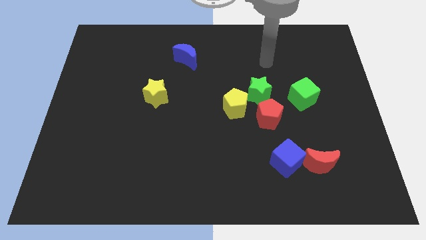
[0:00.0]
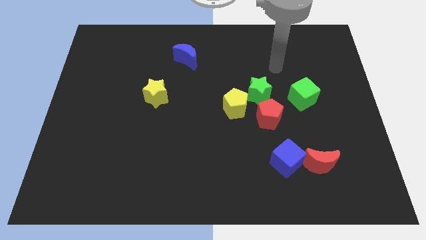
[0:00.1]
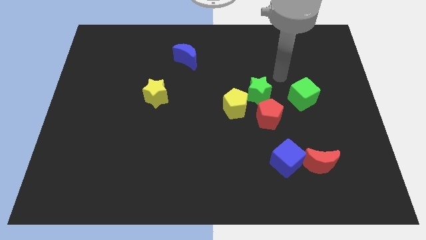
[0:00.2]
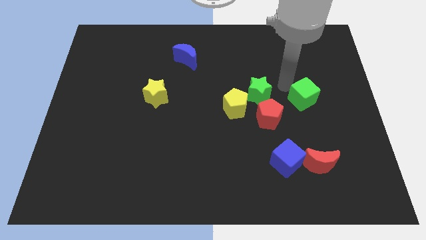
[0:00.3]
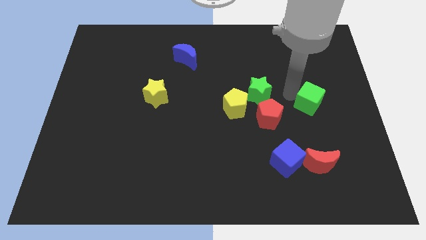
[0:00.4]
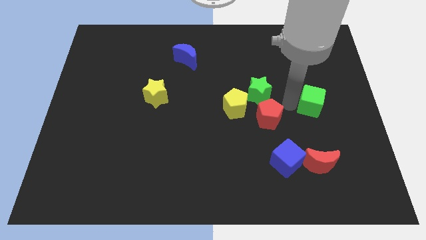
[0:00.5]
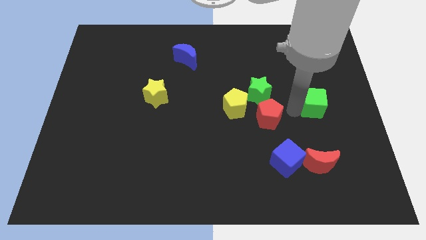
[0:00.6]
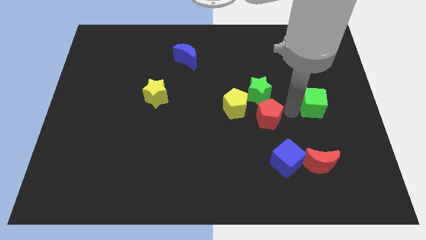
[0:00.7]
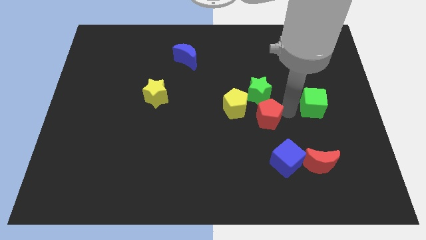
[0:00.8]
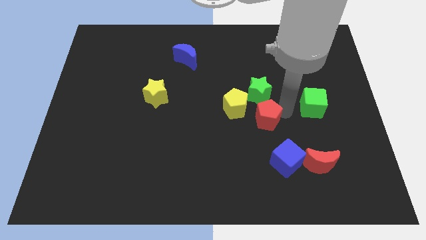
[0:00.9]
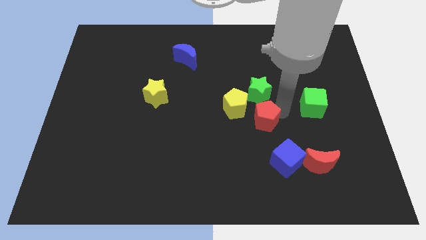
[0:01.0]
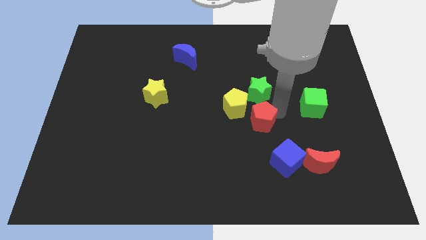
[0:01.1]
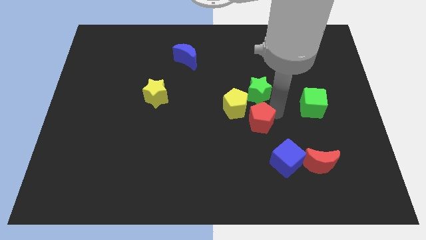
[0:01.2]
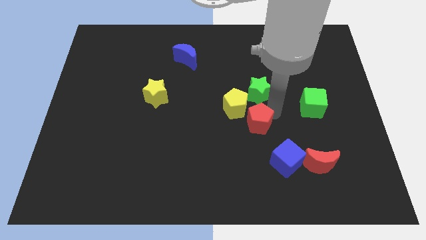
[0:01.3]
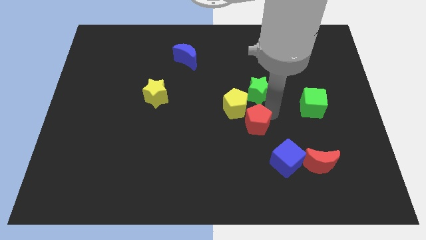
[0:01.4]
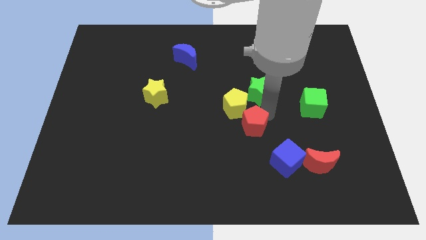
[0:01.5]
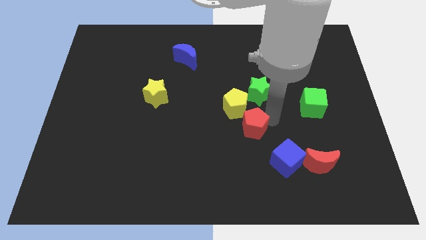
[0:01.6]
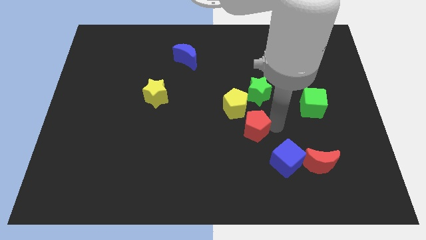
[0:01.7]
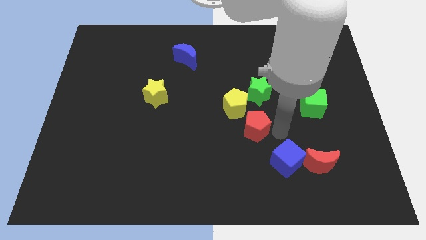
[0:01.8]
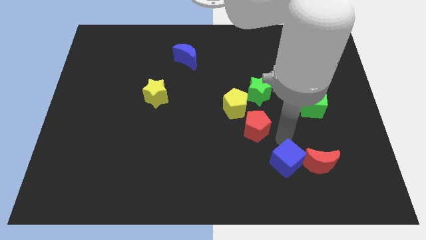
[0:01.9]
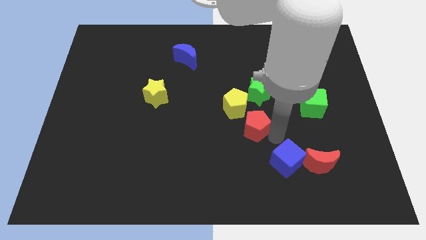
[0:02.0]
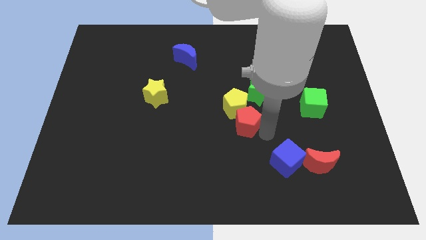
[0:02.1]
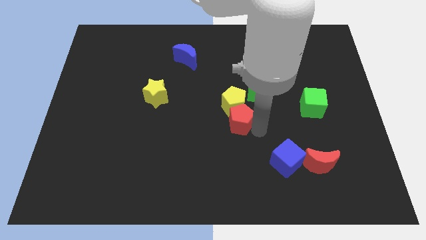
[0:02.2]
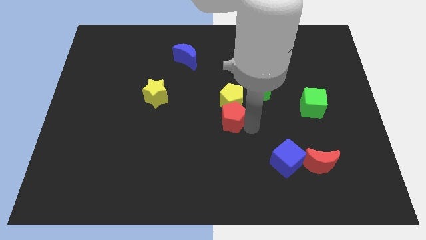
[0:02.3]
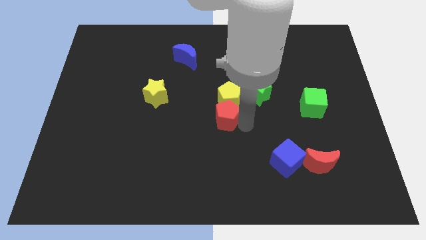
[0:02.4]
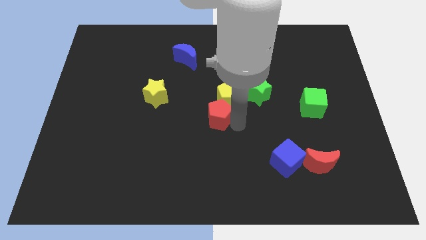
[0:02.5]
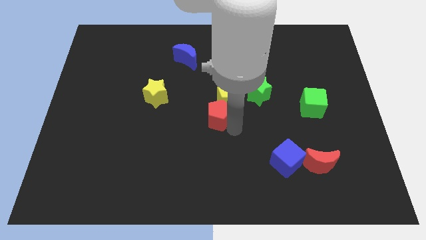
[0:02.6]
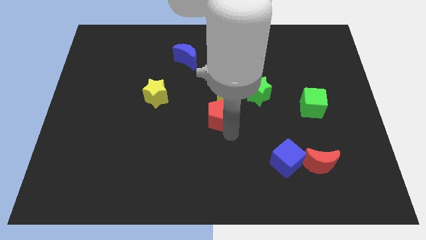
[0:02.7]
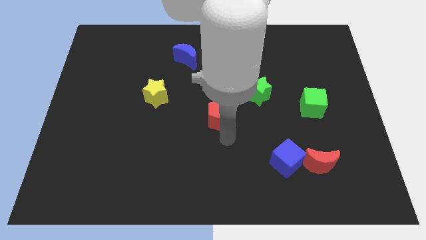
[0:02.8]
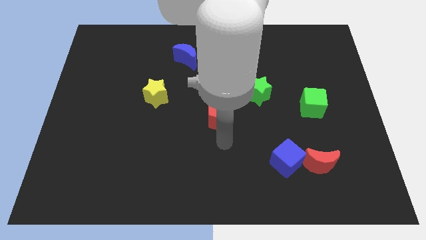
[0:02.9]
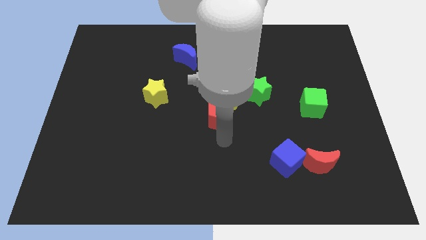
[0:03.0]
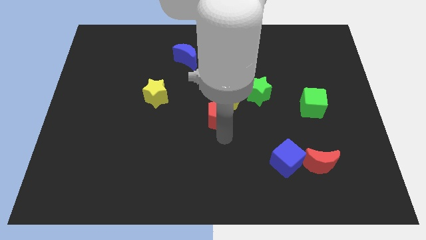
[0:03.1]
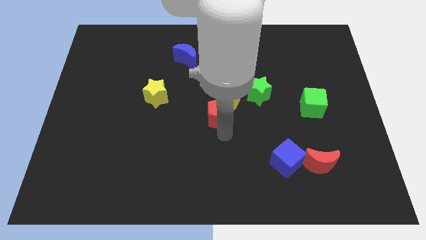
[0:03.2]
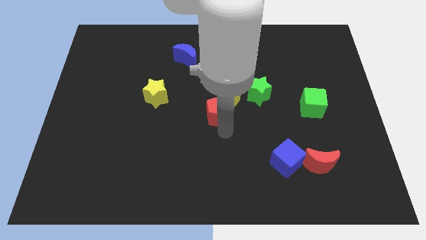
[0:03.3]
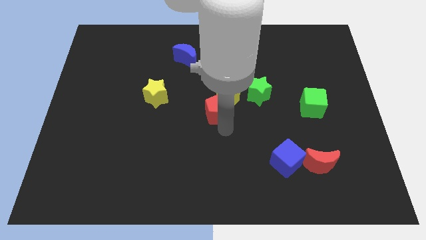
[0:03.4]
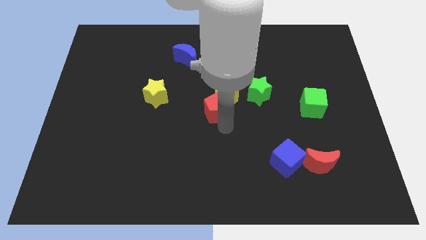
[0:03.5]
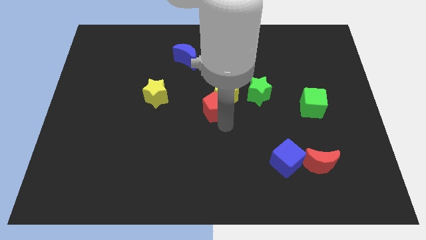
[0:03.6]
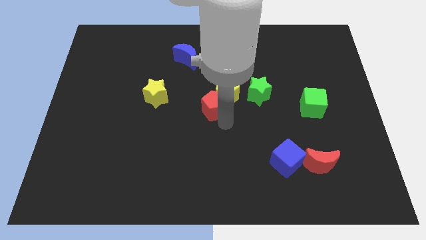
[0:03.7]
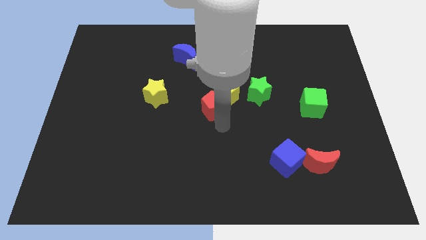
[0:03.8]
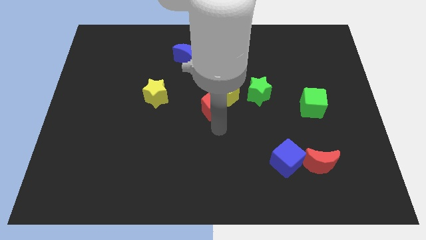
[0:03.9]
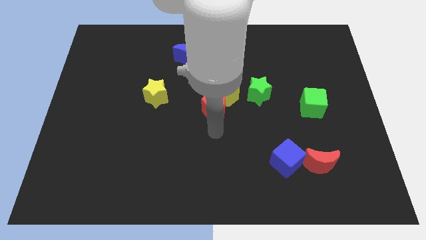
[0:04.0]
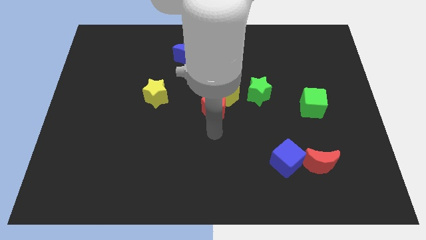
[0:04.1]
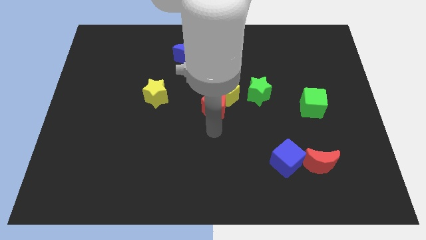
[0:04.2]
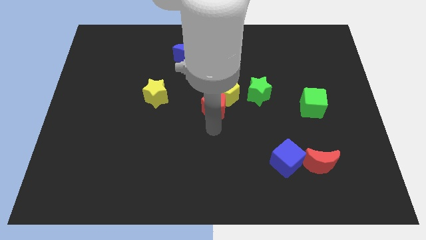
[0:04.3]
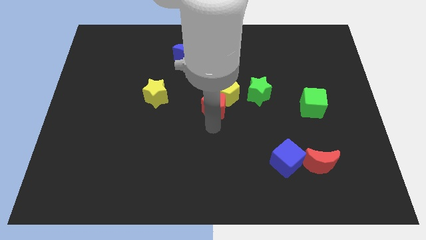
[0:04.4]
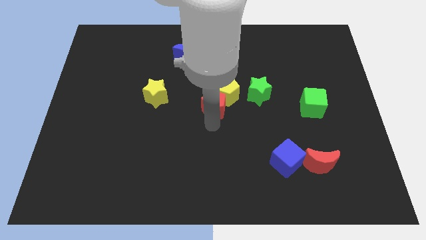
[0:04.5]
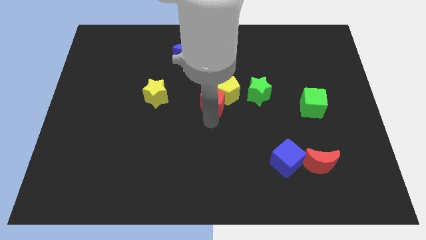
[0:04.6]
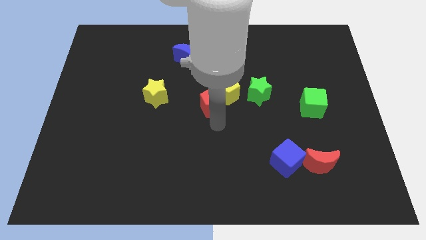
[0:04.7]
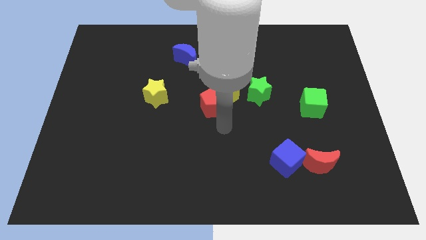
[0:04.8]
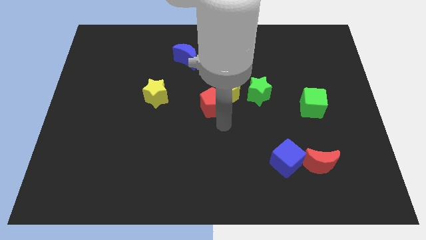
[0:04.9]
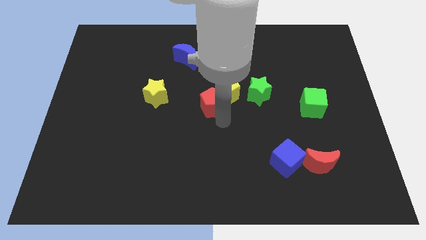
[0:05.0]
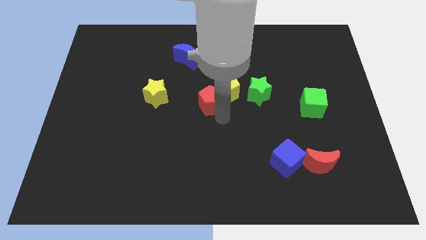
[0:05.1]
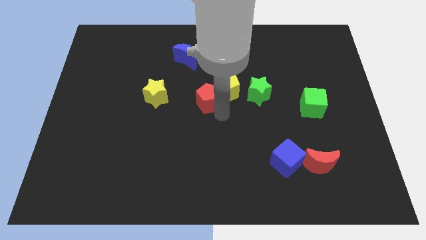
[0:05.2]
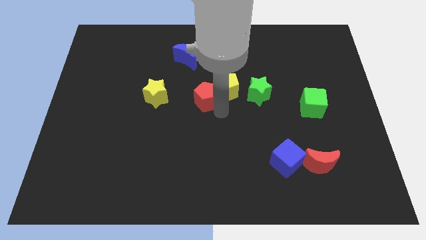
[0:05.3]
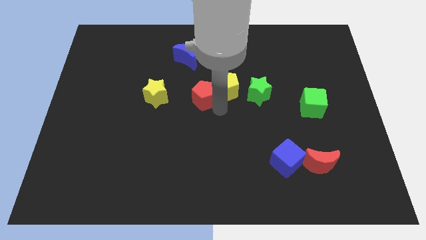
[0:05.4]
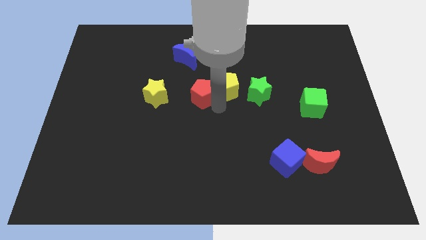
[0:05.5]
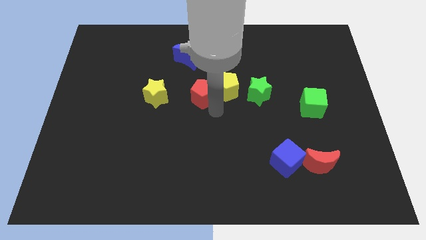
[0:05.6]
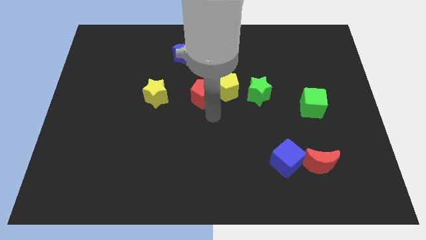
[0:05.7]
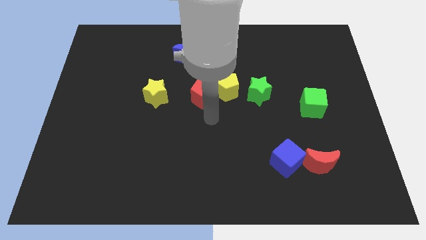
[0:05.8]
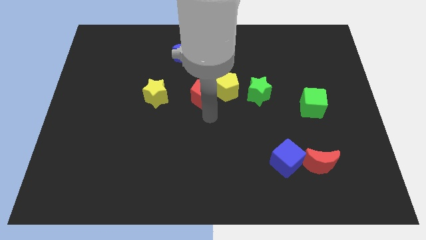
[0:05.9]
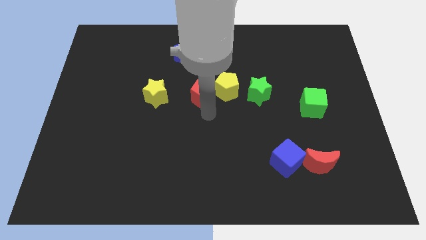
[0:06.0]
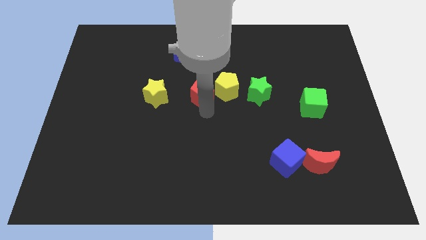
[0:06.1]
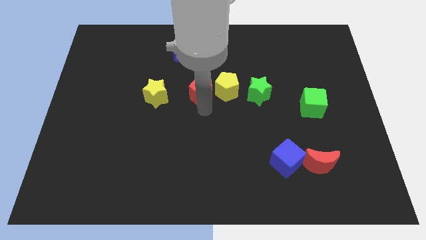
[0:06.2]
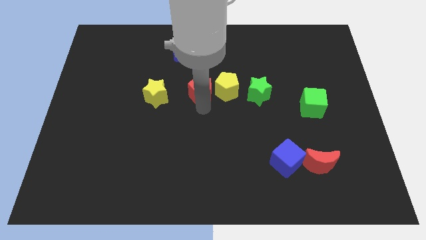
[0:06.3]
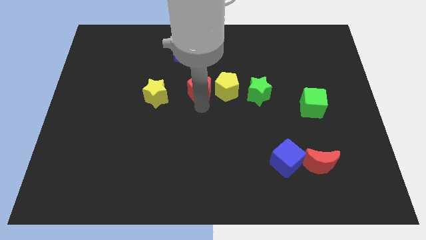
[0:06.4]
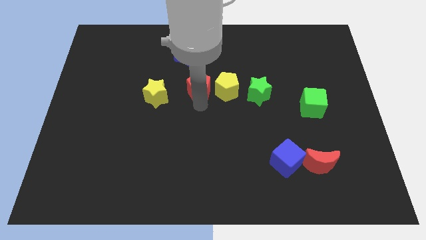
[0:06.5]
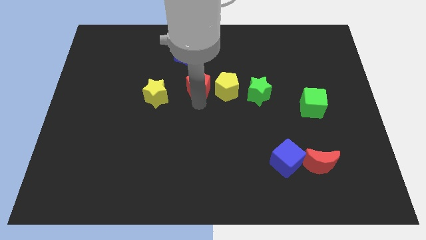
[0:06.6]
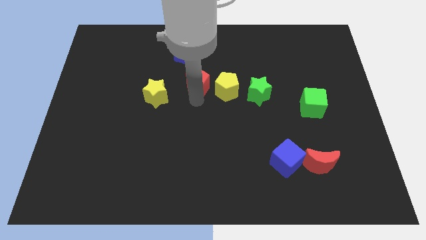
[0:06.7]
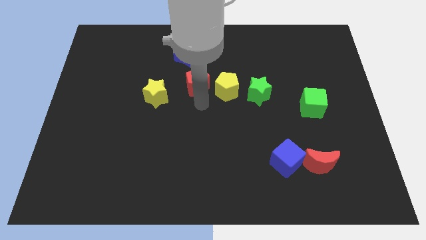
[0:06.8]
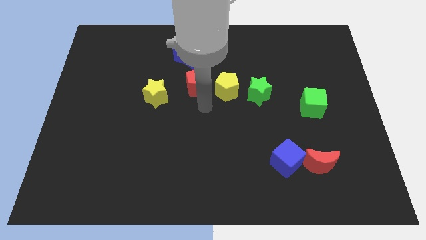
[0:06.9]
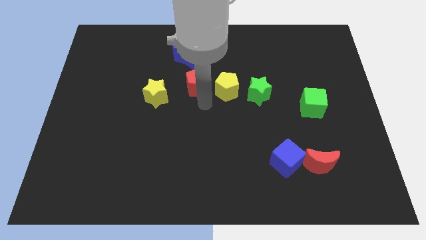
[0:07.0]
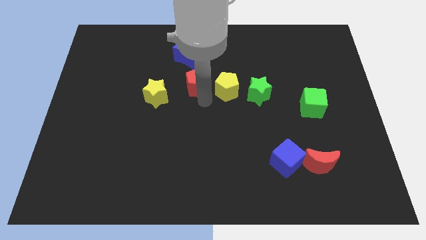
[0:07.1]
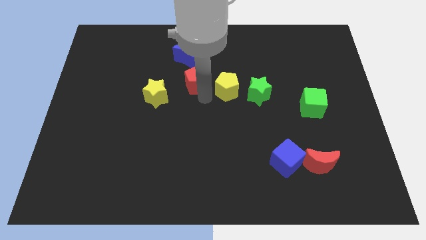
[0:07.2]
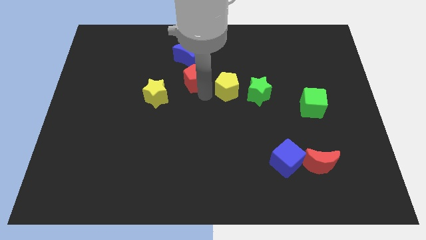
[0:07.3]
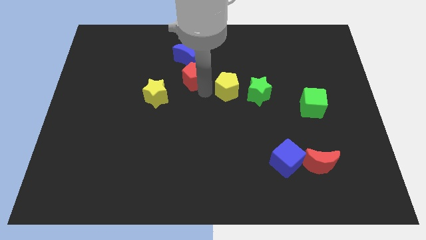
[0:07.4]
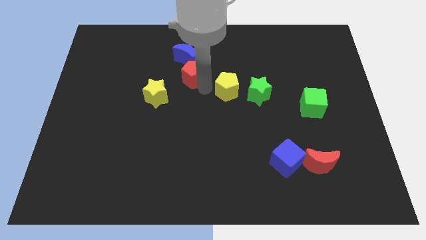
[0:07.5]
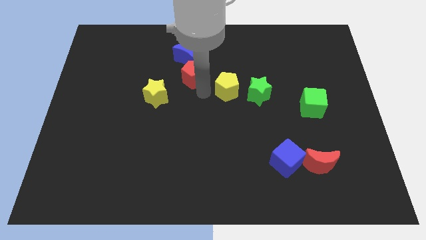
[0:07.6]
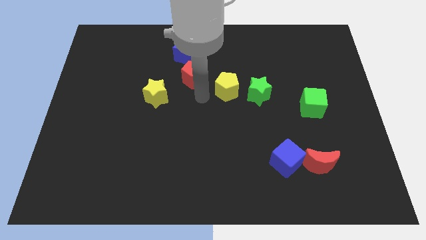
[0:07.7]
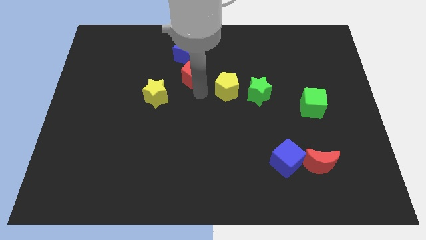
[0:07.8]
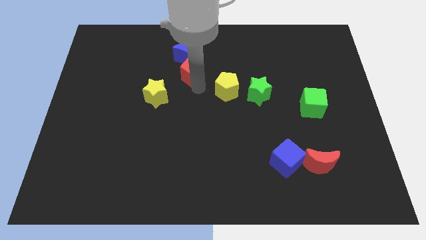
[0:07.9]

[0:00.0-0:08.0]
move the red pentagon next to the blue moon
